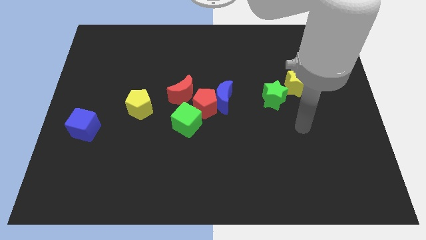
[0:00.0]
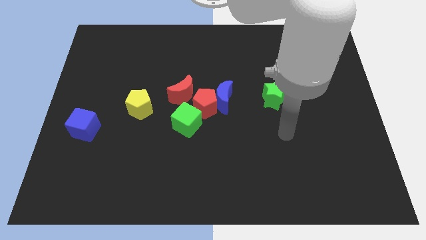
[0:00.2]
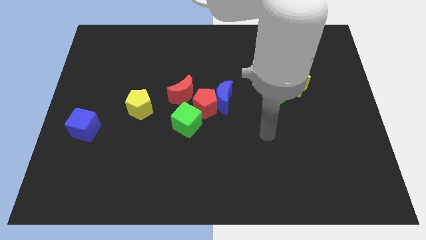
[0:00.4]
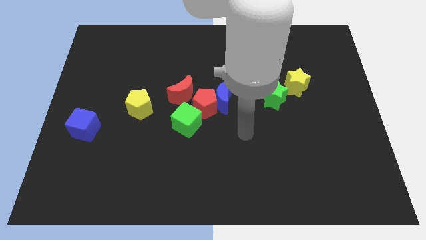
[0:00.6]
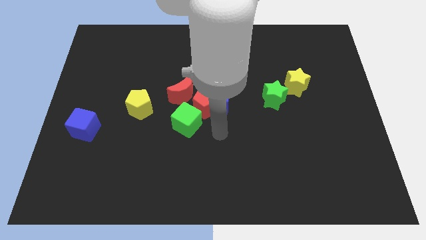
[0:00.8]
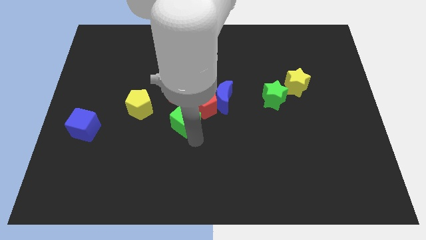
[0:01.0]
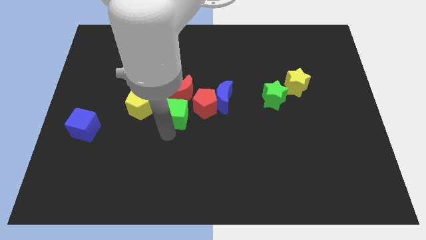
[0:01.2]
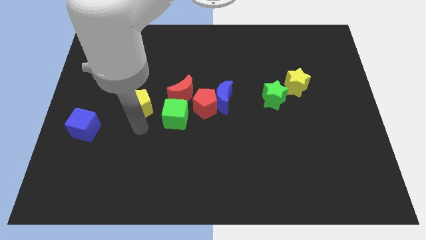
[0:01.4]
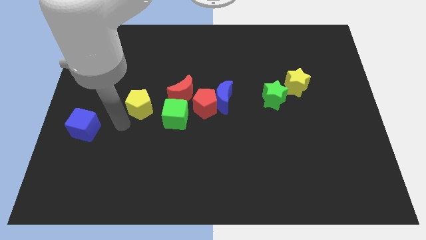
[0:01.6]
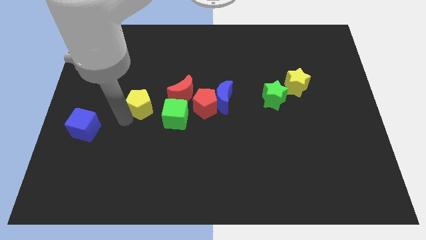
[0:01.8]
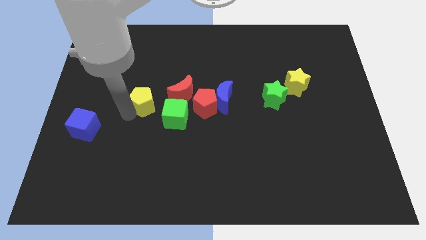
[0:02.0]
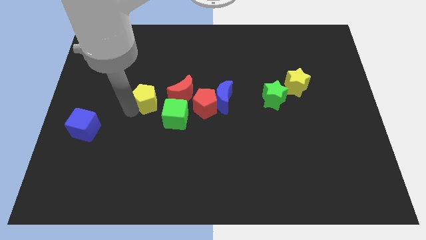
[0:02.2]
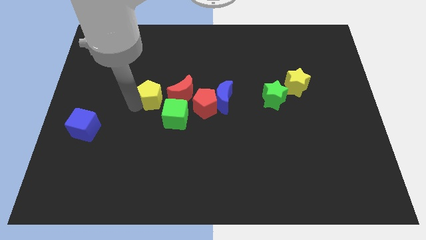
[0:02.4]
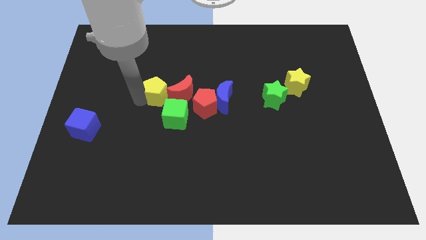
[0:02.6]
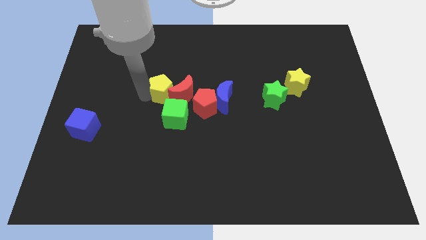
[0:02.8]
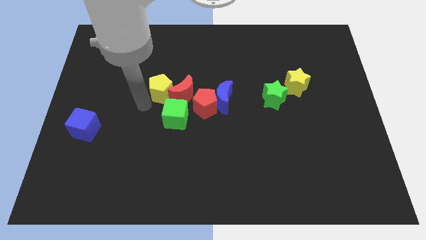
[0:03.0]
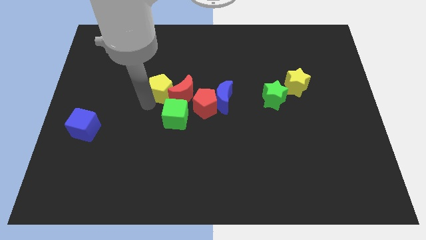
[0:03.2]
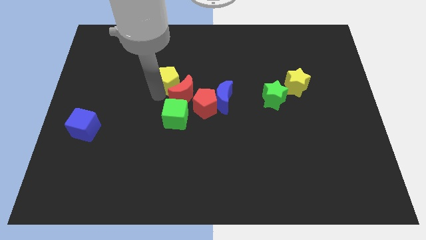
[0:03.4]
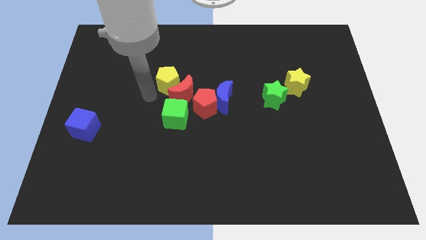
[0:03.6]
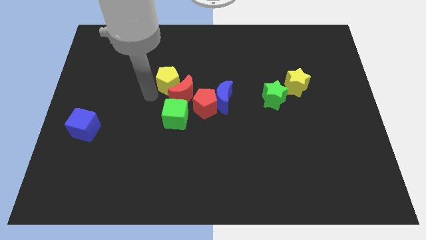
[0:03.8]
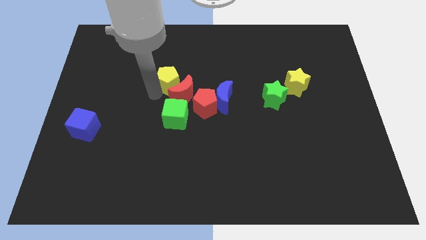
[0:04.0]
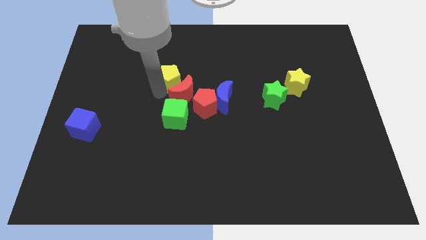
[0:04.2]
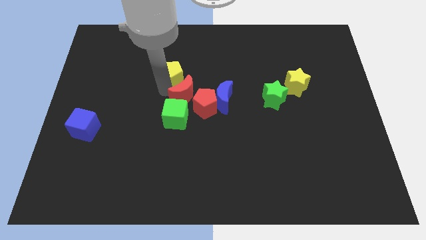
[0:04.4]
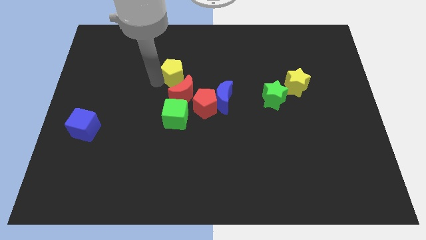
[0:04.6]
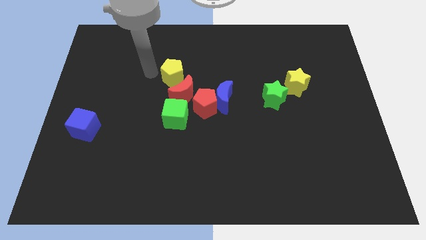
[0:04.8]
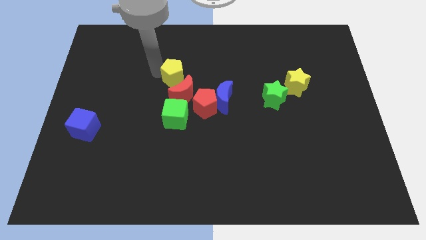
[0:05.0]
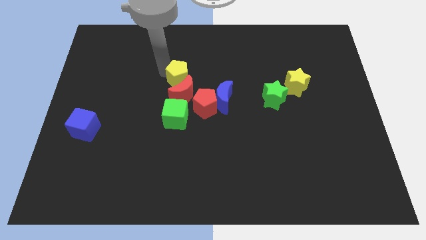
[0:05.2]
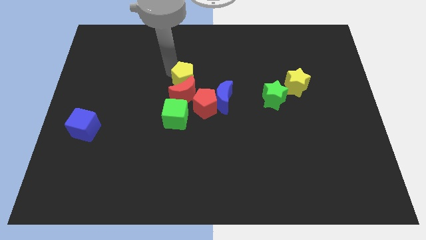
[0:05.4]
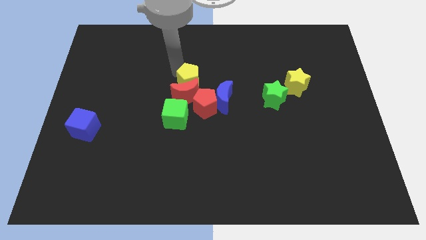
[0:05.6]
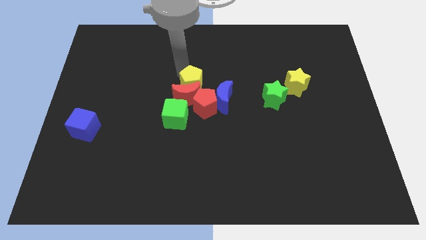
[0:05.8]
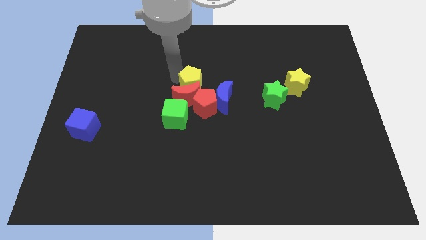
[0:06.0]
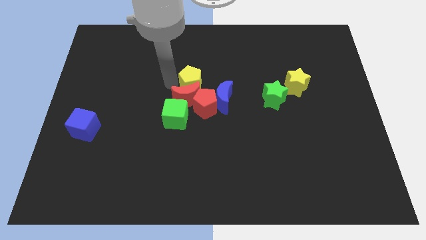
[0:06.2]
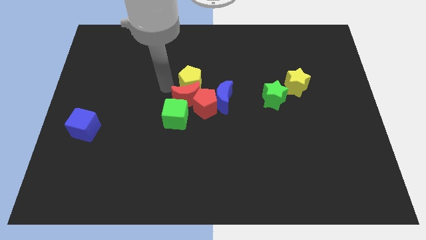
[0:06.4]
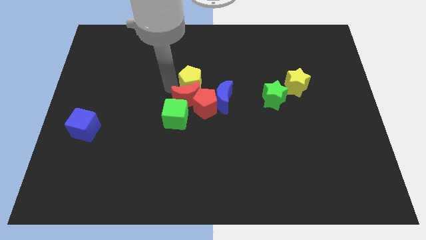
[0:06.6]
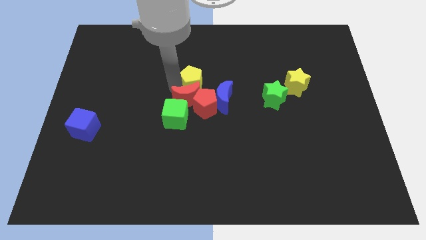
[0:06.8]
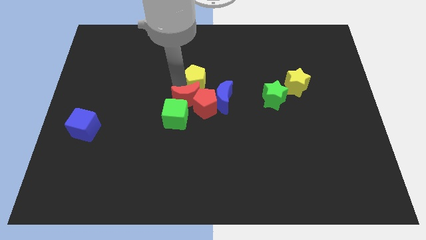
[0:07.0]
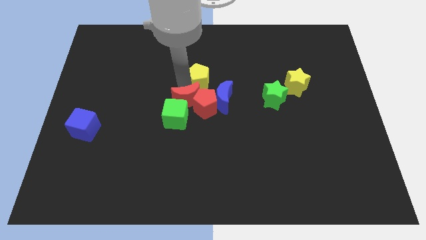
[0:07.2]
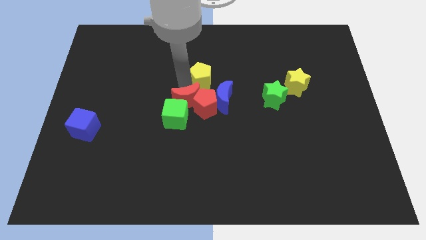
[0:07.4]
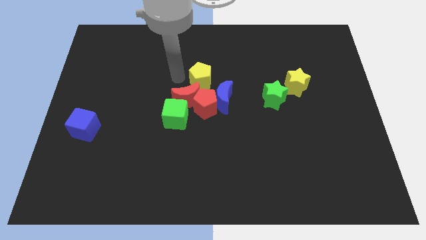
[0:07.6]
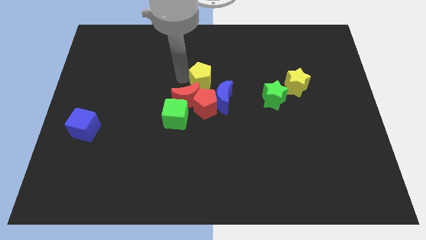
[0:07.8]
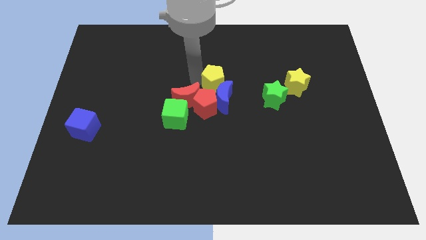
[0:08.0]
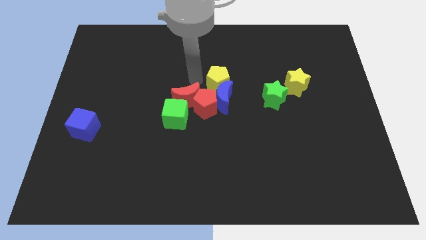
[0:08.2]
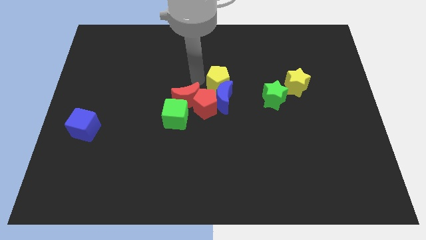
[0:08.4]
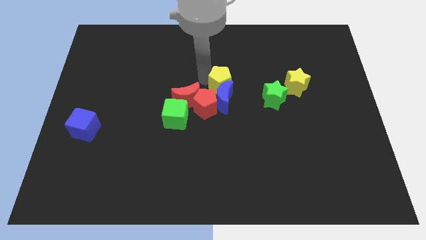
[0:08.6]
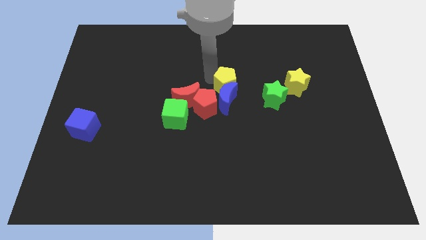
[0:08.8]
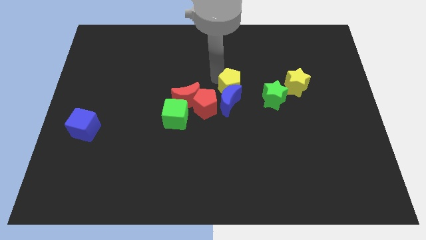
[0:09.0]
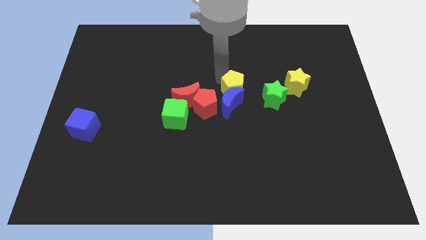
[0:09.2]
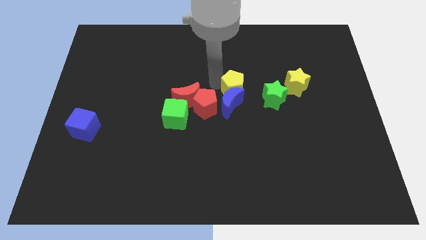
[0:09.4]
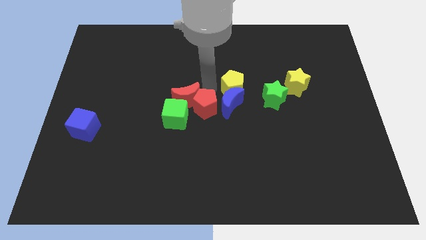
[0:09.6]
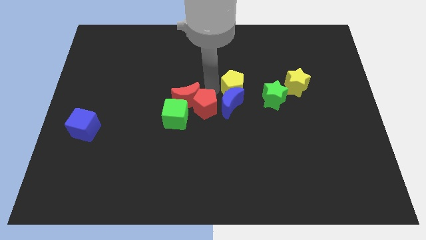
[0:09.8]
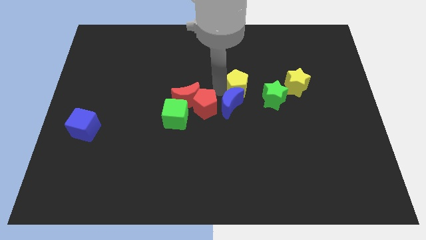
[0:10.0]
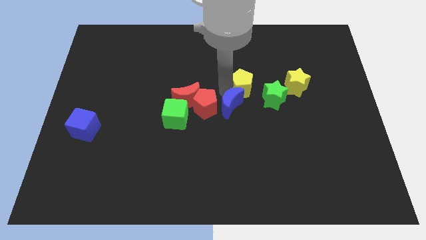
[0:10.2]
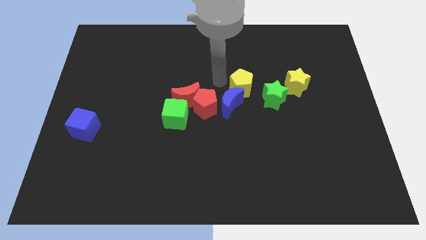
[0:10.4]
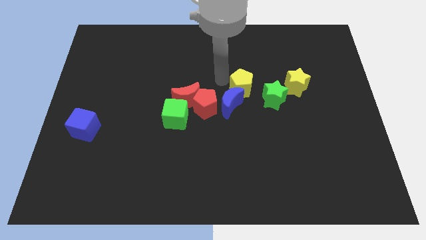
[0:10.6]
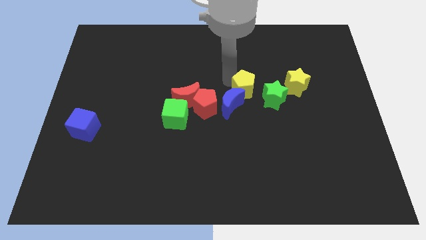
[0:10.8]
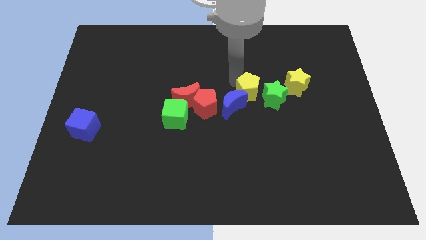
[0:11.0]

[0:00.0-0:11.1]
put the yellow pentagon to the green star

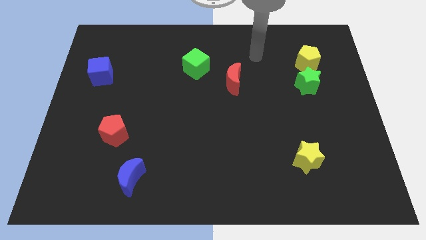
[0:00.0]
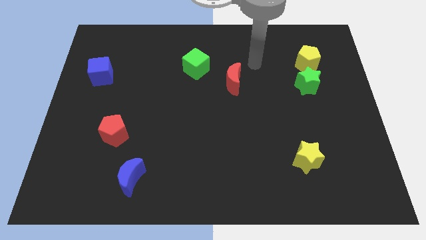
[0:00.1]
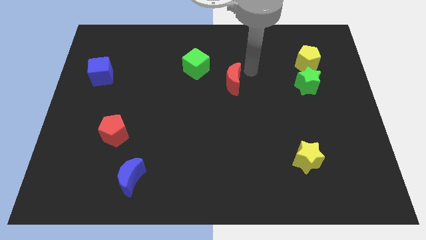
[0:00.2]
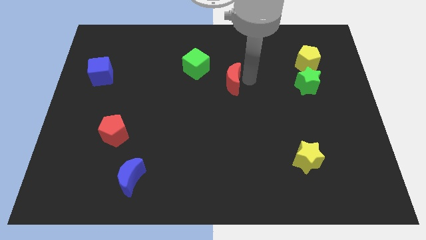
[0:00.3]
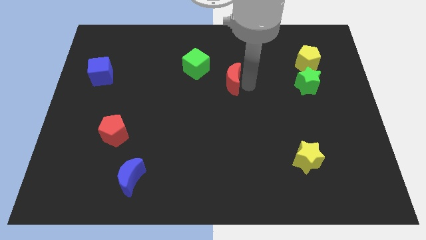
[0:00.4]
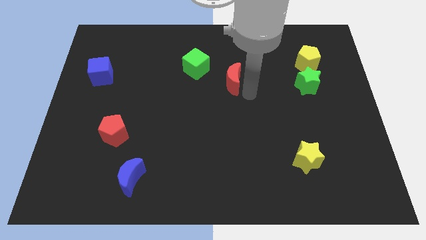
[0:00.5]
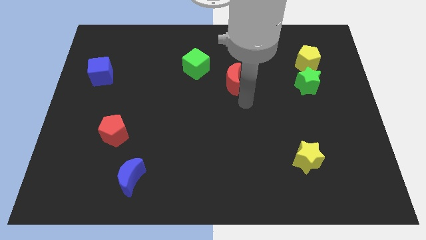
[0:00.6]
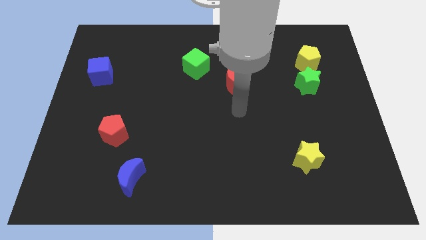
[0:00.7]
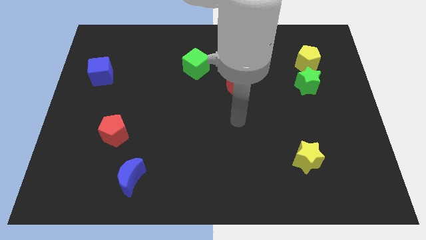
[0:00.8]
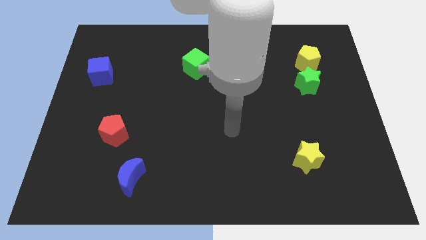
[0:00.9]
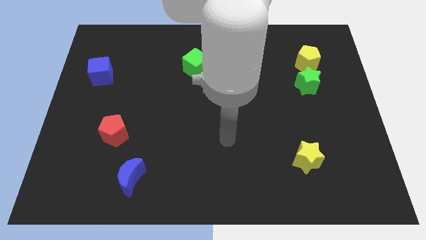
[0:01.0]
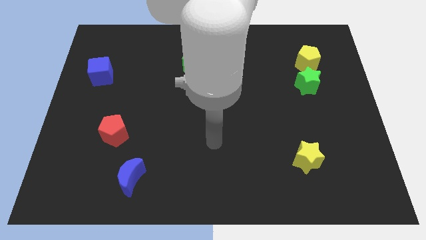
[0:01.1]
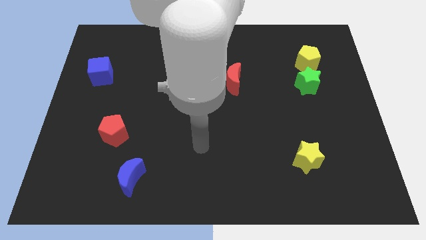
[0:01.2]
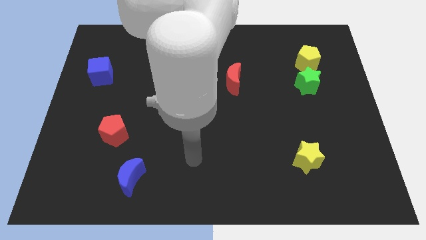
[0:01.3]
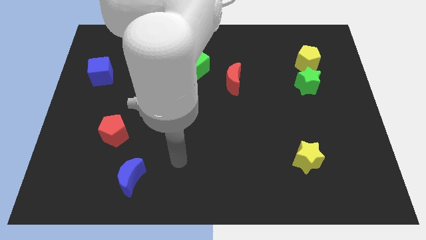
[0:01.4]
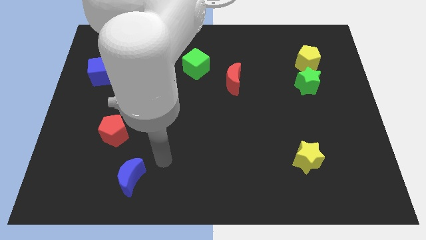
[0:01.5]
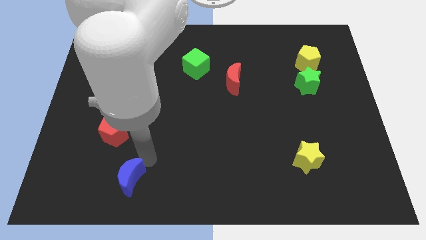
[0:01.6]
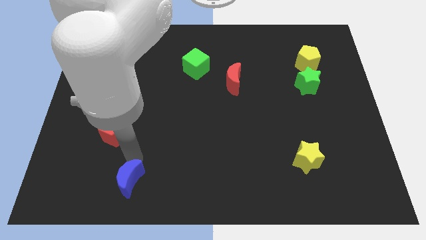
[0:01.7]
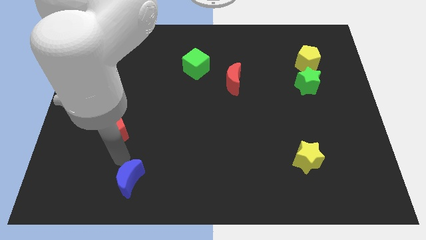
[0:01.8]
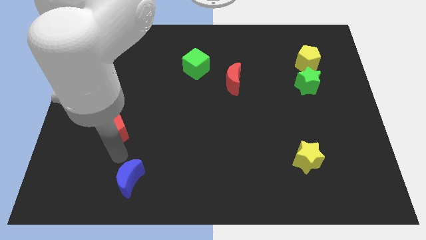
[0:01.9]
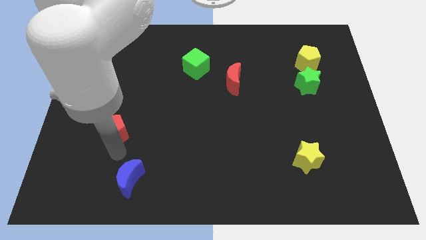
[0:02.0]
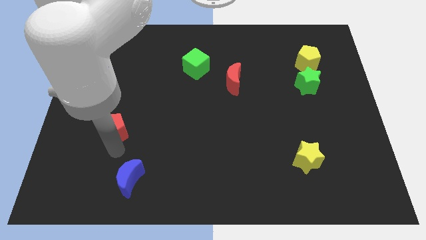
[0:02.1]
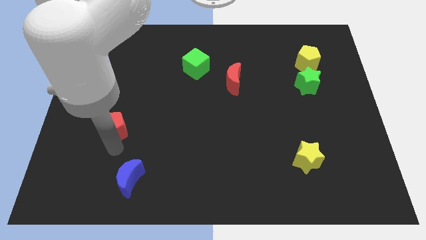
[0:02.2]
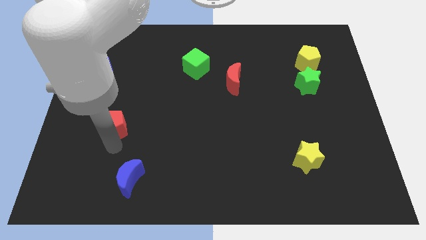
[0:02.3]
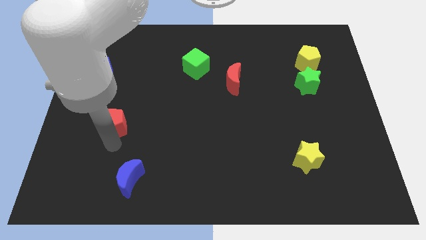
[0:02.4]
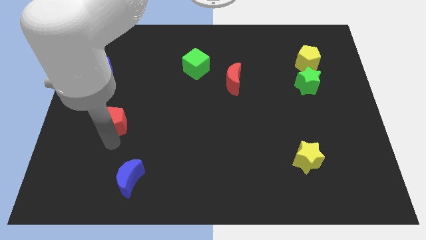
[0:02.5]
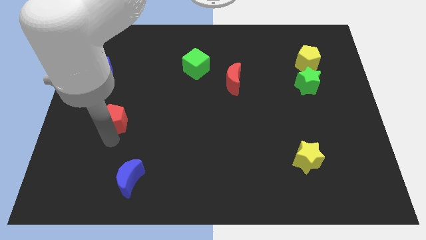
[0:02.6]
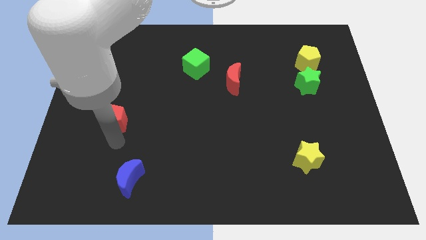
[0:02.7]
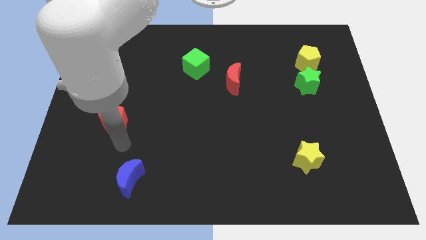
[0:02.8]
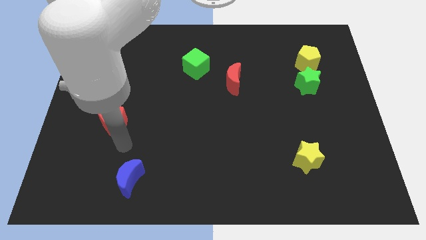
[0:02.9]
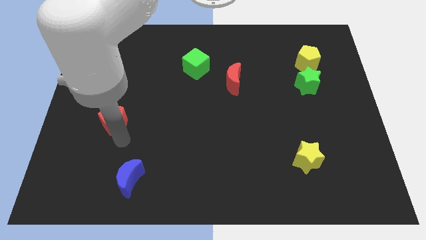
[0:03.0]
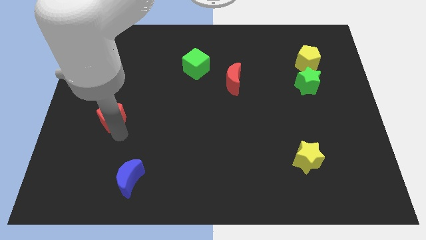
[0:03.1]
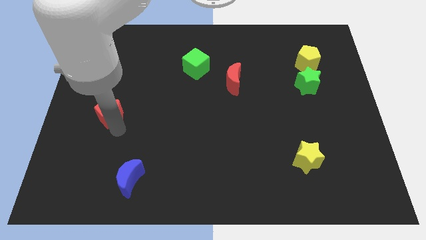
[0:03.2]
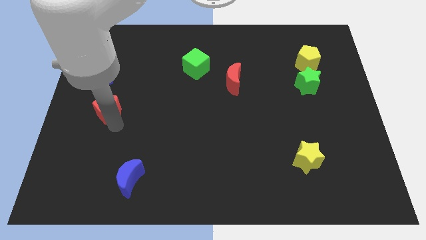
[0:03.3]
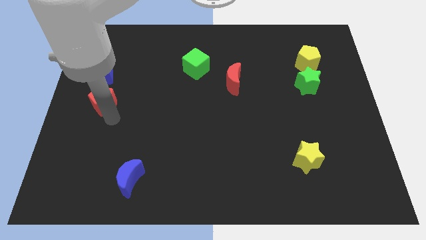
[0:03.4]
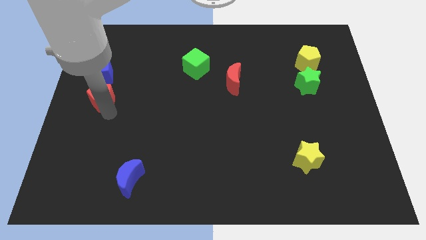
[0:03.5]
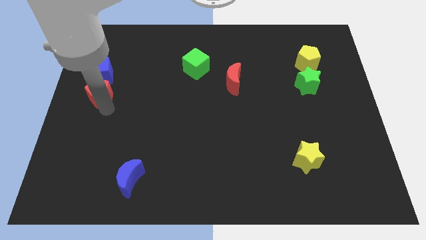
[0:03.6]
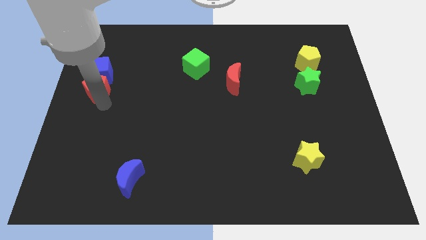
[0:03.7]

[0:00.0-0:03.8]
slide the red pentagon towards the blue cube
